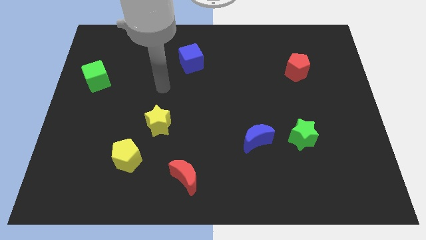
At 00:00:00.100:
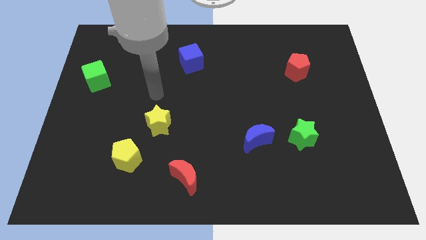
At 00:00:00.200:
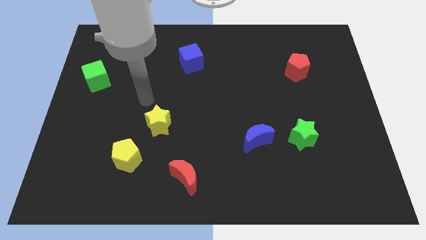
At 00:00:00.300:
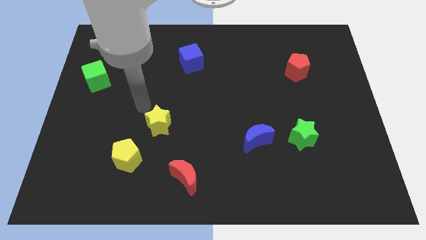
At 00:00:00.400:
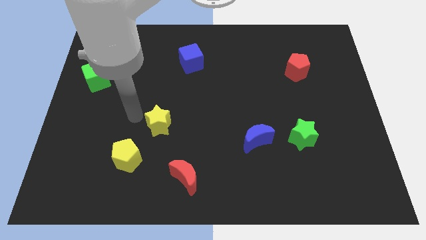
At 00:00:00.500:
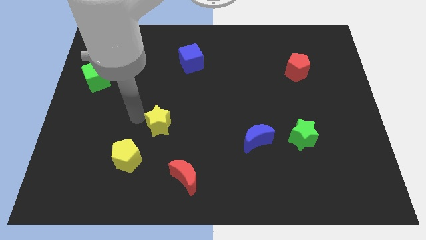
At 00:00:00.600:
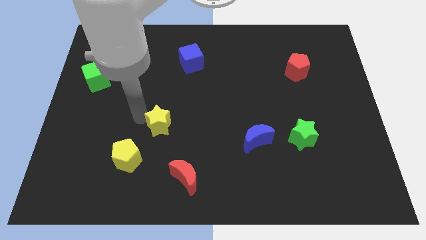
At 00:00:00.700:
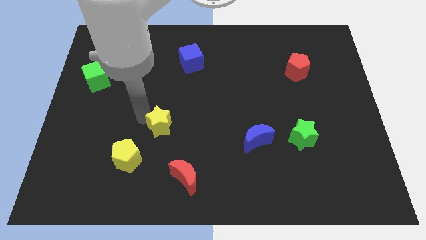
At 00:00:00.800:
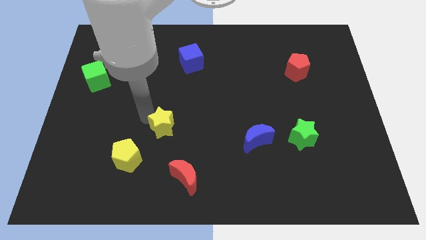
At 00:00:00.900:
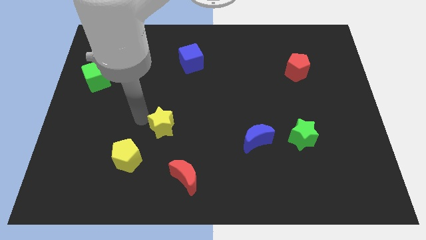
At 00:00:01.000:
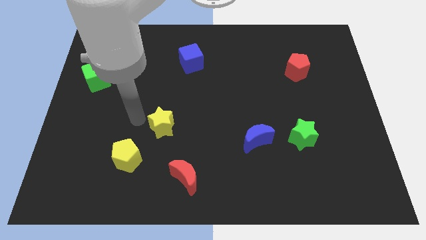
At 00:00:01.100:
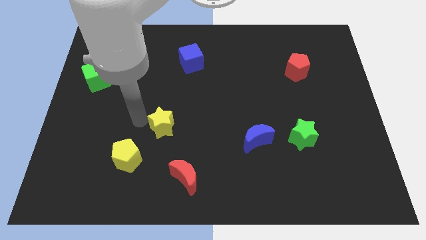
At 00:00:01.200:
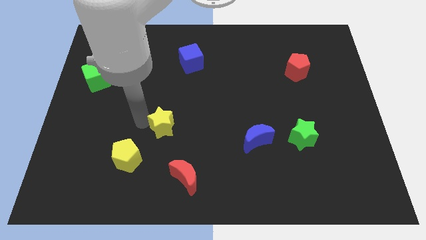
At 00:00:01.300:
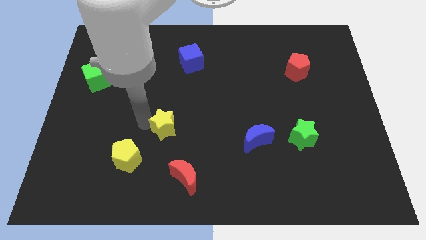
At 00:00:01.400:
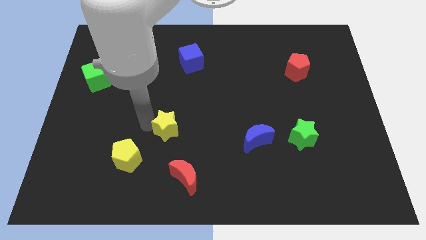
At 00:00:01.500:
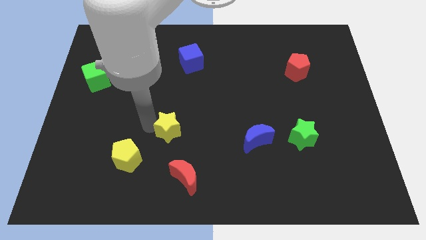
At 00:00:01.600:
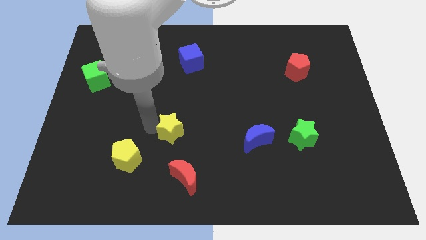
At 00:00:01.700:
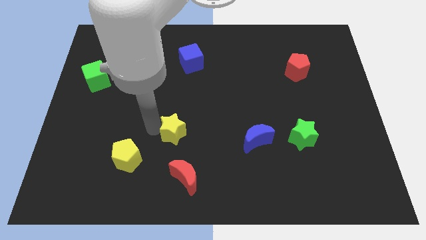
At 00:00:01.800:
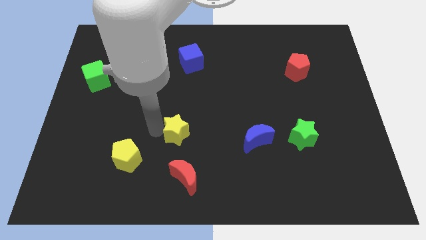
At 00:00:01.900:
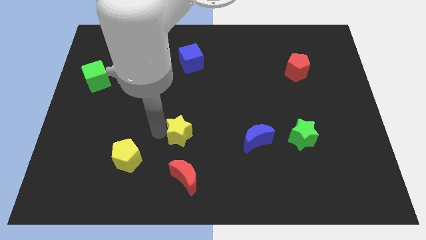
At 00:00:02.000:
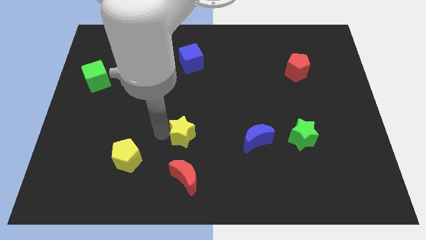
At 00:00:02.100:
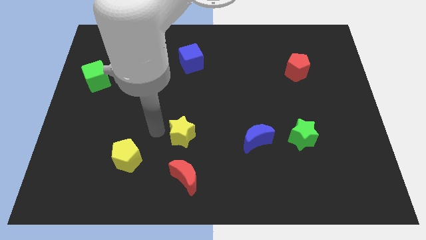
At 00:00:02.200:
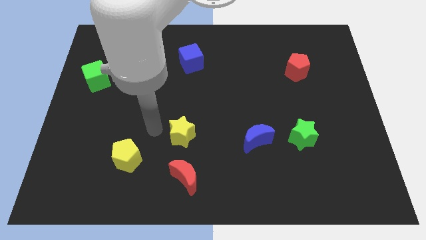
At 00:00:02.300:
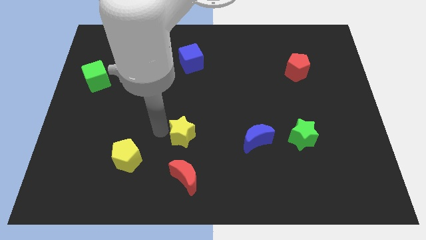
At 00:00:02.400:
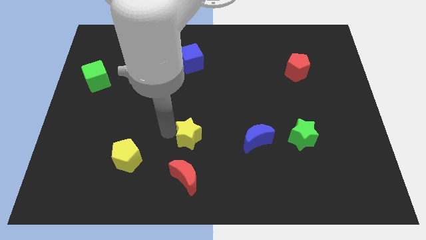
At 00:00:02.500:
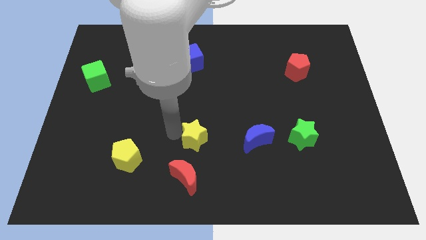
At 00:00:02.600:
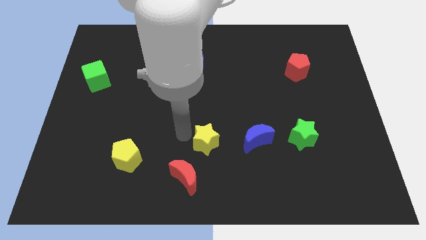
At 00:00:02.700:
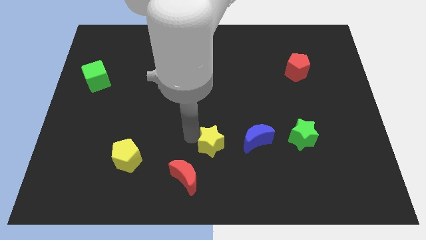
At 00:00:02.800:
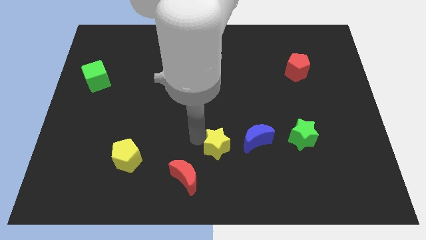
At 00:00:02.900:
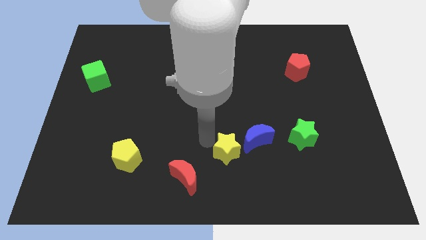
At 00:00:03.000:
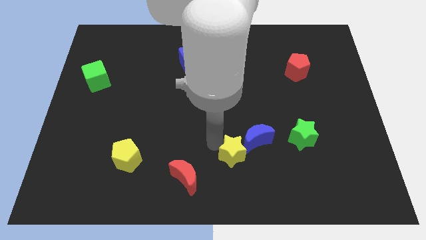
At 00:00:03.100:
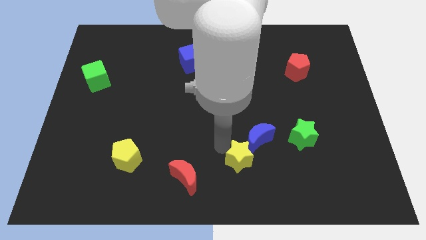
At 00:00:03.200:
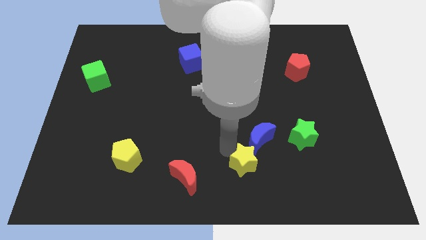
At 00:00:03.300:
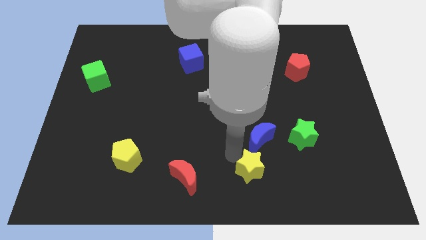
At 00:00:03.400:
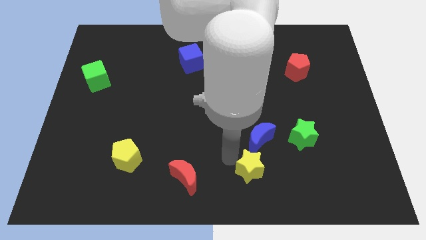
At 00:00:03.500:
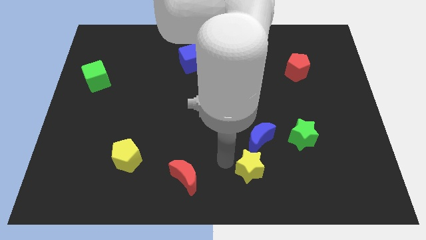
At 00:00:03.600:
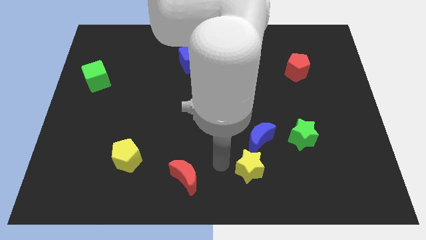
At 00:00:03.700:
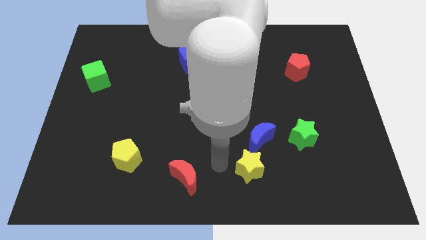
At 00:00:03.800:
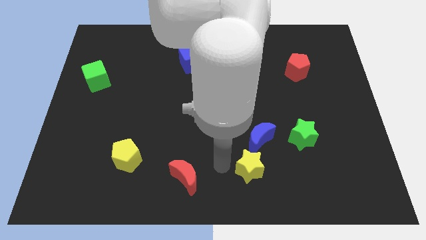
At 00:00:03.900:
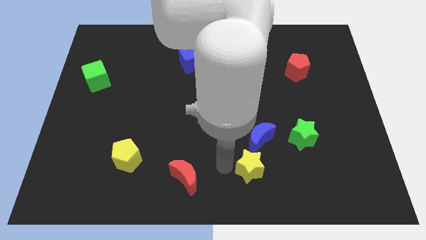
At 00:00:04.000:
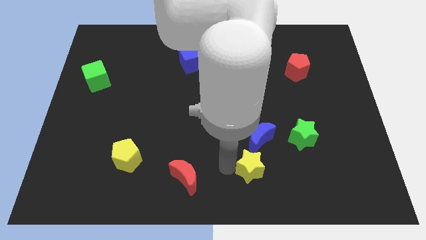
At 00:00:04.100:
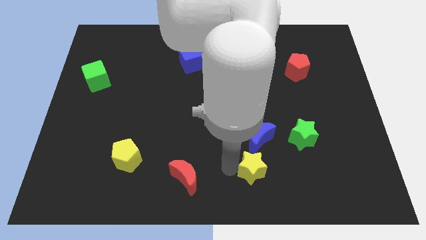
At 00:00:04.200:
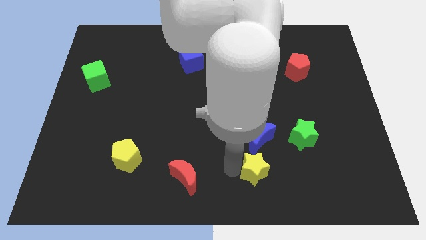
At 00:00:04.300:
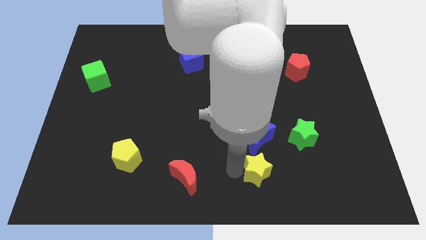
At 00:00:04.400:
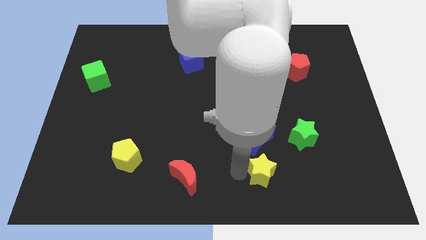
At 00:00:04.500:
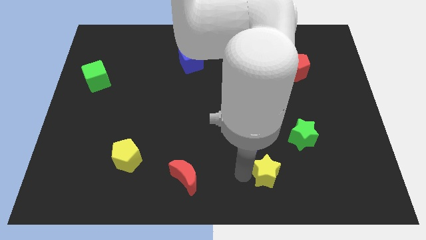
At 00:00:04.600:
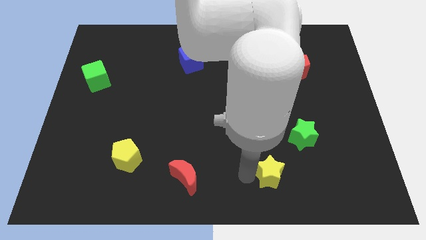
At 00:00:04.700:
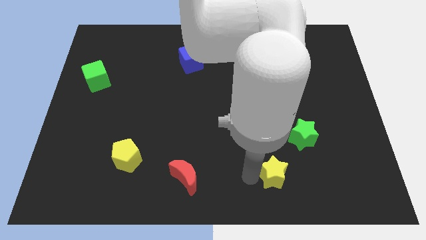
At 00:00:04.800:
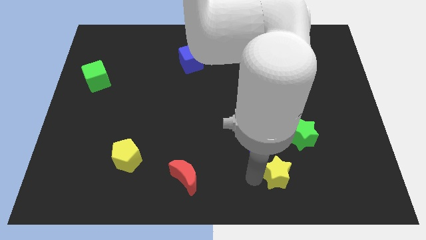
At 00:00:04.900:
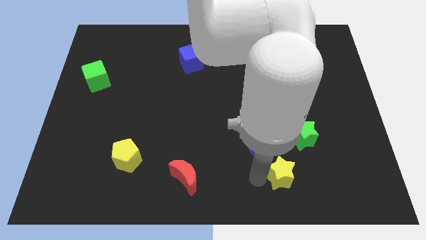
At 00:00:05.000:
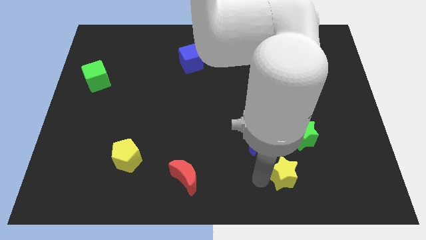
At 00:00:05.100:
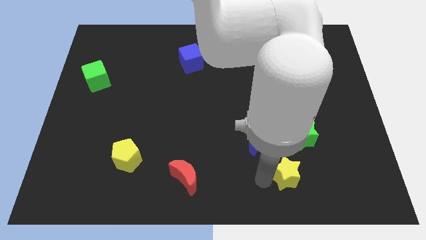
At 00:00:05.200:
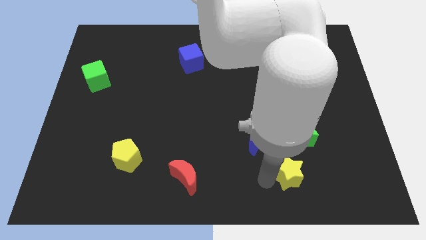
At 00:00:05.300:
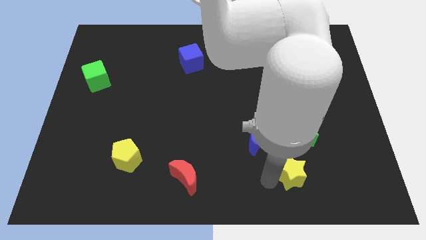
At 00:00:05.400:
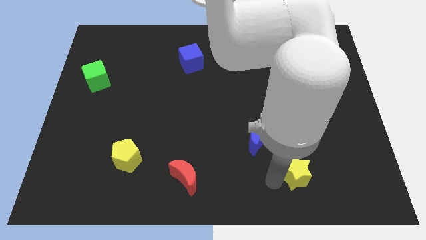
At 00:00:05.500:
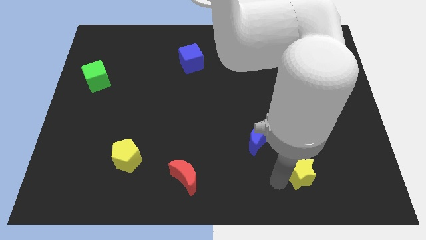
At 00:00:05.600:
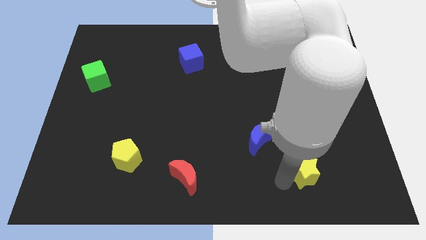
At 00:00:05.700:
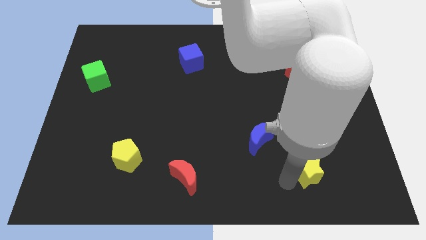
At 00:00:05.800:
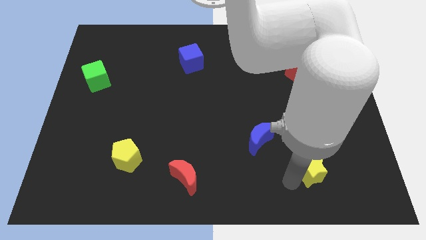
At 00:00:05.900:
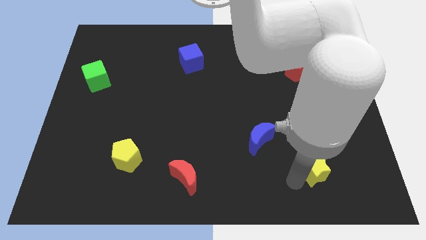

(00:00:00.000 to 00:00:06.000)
slide the yellow star diagonally down and to the right of the green star
